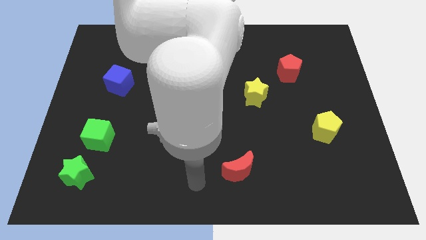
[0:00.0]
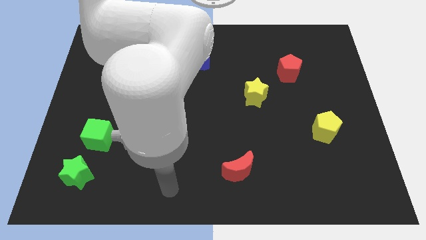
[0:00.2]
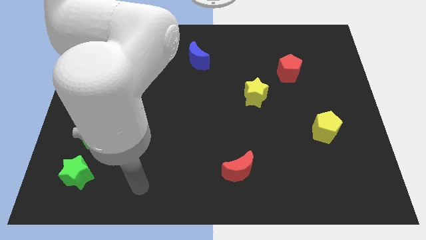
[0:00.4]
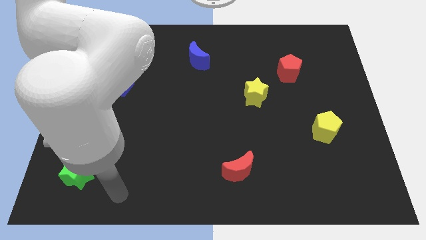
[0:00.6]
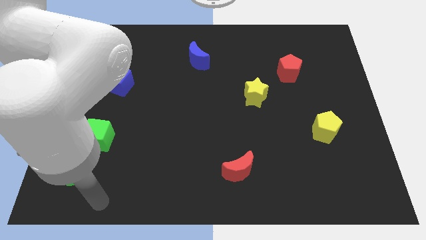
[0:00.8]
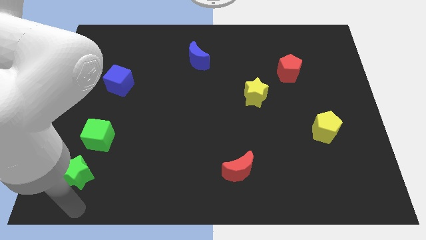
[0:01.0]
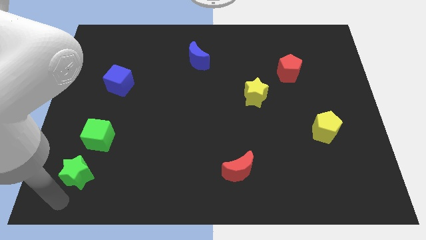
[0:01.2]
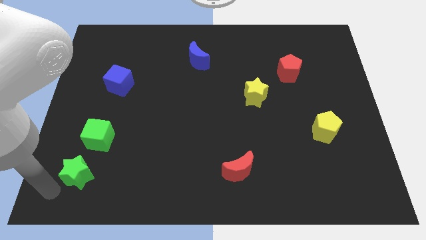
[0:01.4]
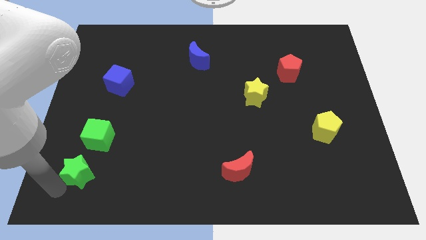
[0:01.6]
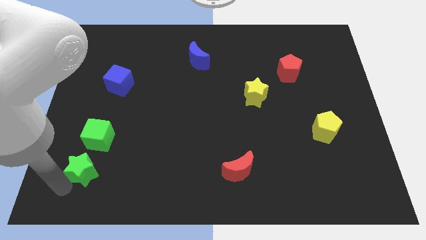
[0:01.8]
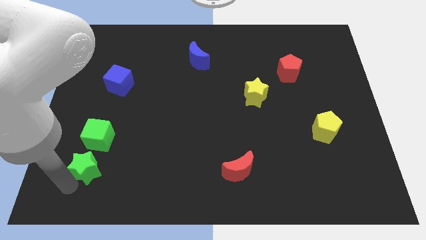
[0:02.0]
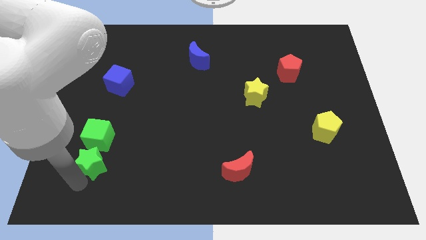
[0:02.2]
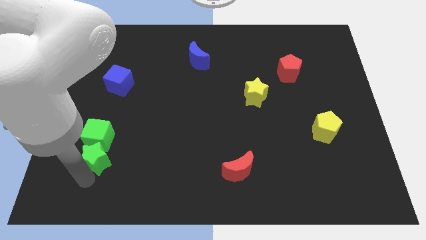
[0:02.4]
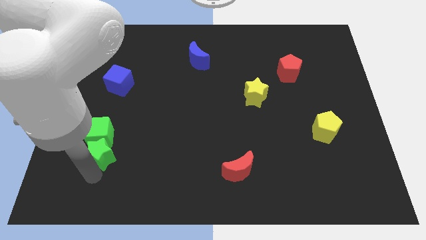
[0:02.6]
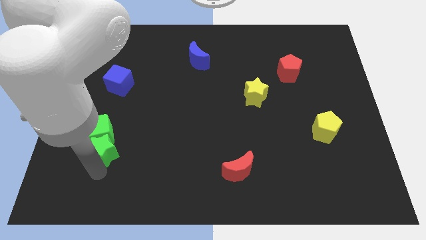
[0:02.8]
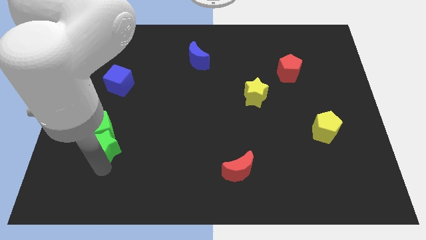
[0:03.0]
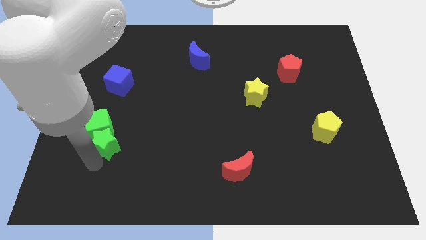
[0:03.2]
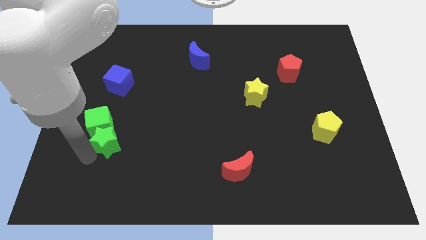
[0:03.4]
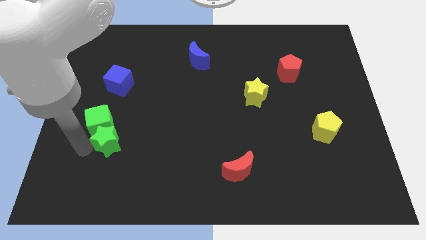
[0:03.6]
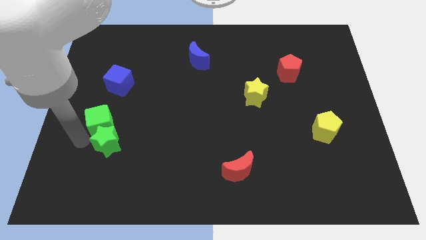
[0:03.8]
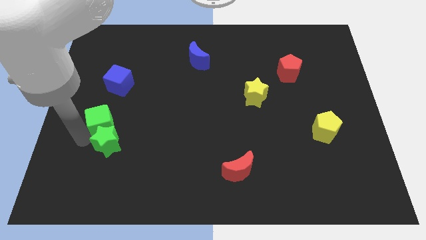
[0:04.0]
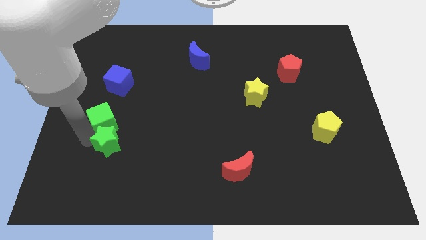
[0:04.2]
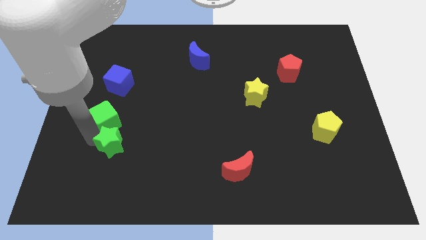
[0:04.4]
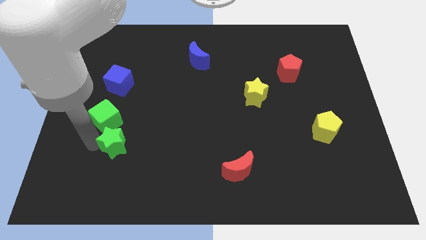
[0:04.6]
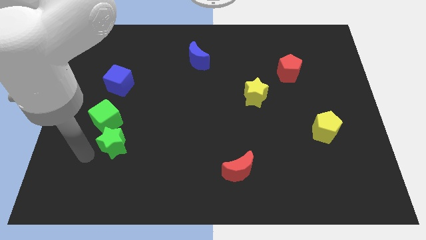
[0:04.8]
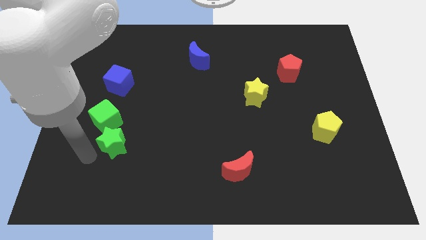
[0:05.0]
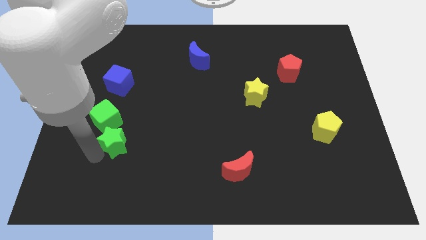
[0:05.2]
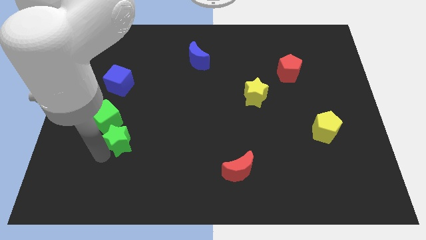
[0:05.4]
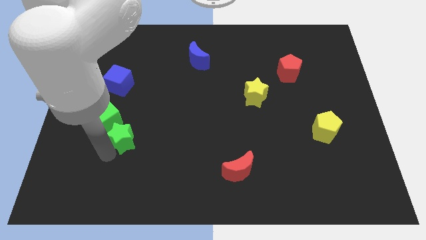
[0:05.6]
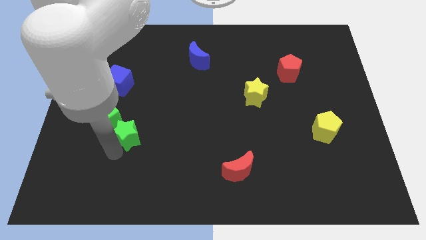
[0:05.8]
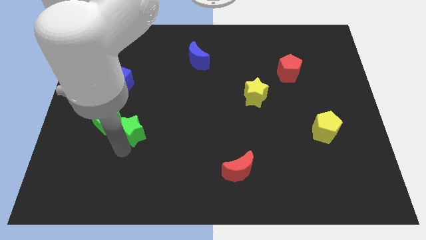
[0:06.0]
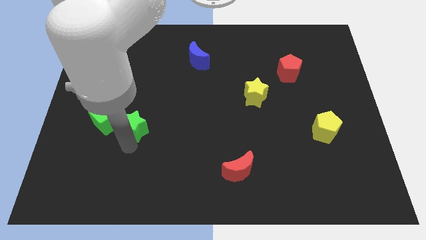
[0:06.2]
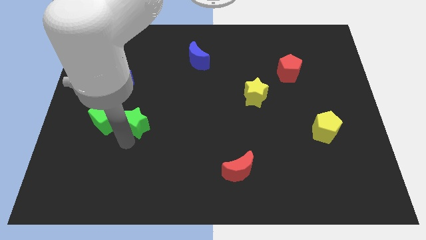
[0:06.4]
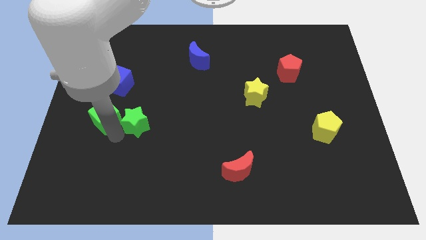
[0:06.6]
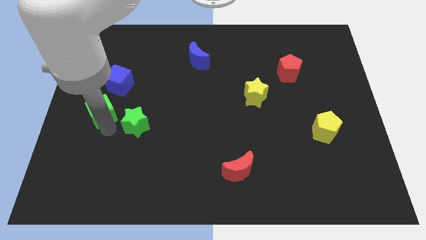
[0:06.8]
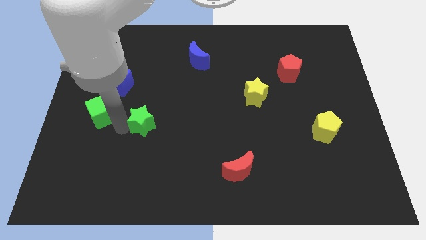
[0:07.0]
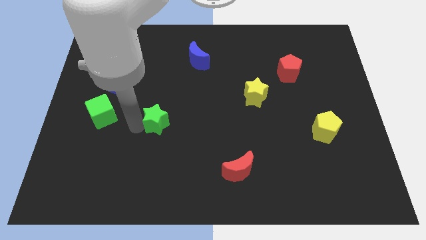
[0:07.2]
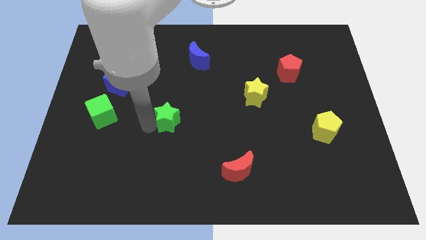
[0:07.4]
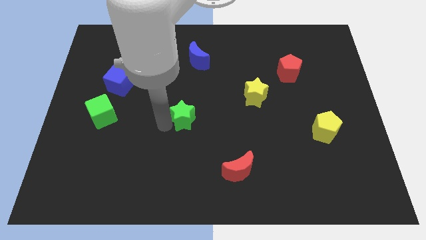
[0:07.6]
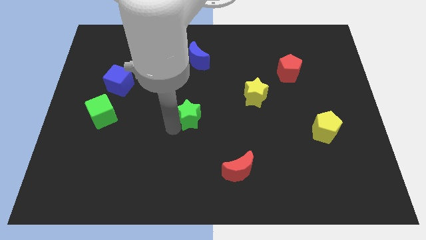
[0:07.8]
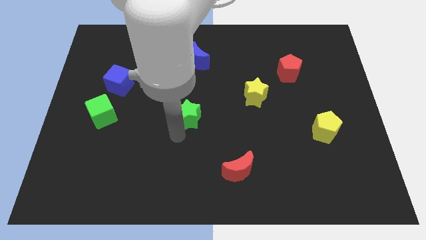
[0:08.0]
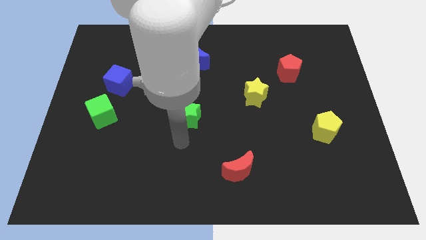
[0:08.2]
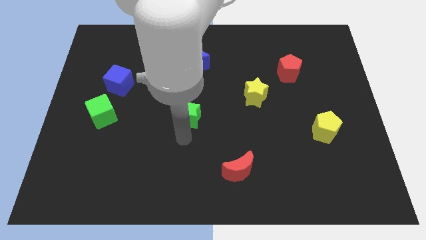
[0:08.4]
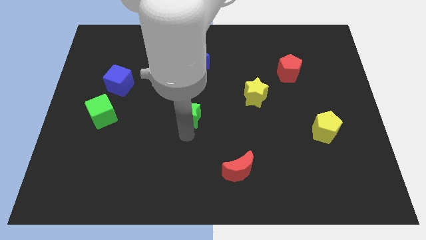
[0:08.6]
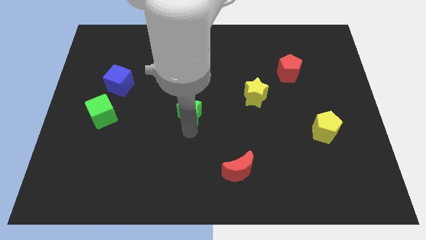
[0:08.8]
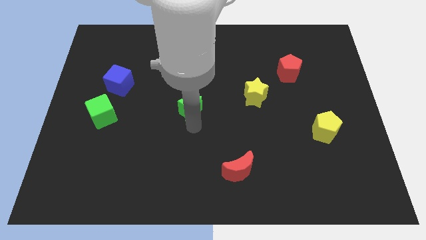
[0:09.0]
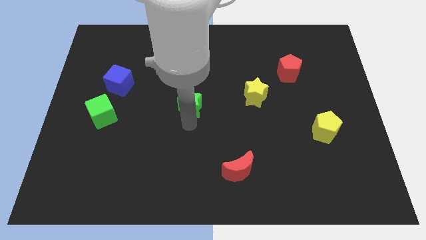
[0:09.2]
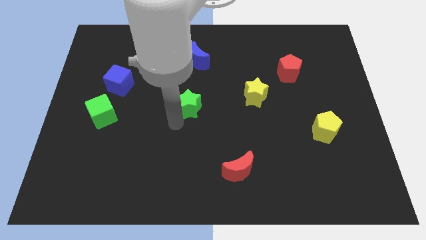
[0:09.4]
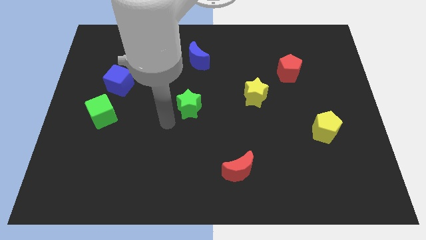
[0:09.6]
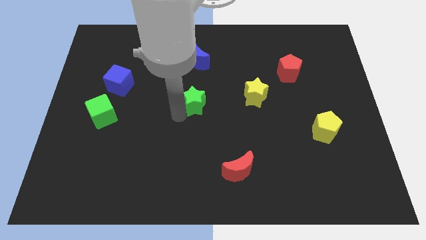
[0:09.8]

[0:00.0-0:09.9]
put the green star just left of the yellow star

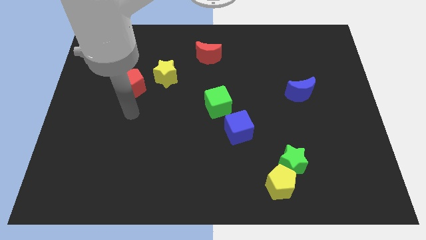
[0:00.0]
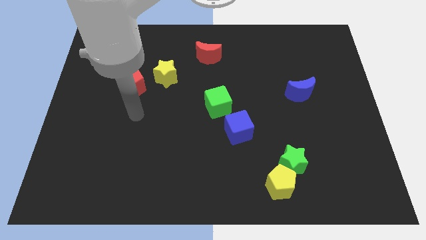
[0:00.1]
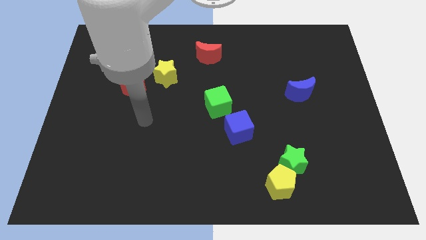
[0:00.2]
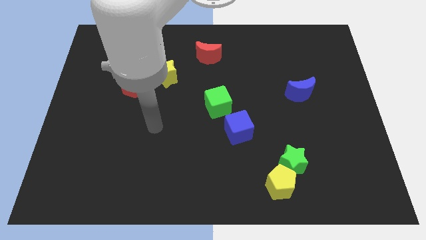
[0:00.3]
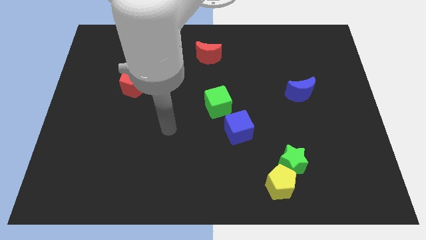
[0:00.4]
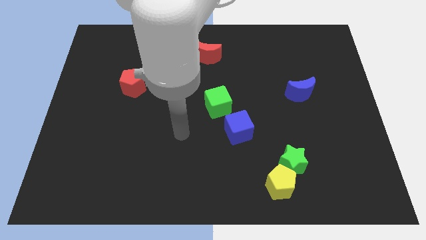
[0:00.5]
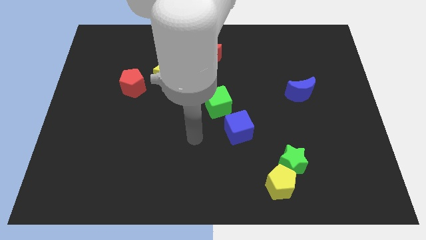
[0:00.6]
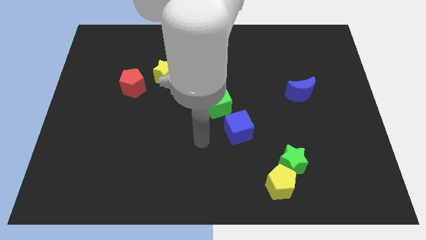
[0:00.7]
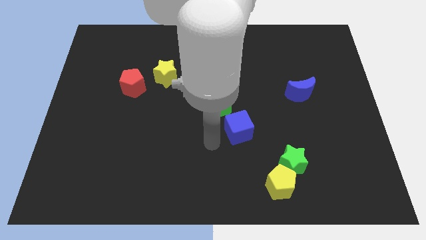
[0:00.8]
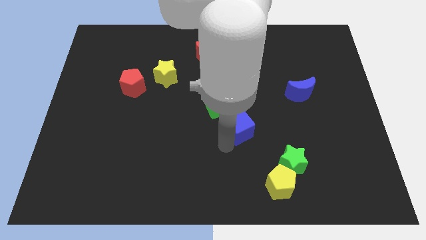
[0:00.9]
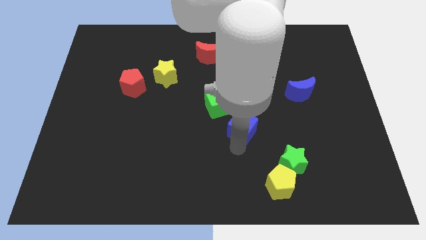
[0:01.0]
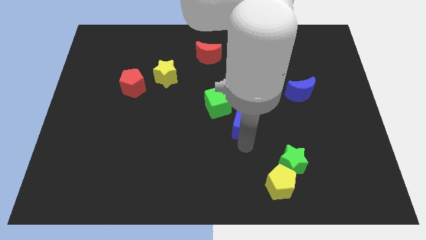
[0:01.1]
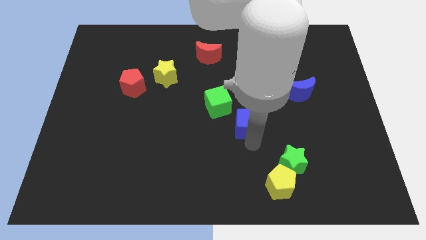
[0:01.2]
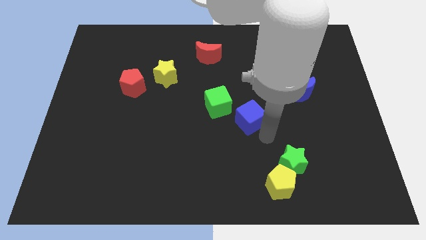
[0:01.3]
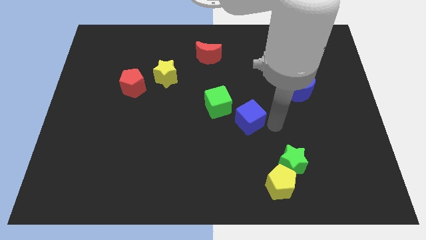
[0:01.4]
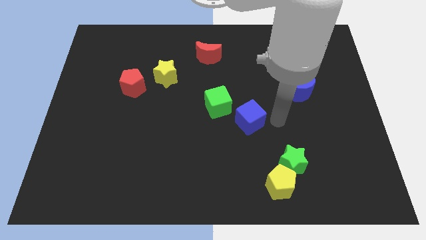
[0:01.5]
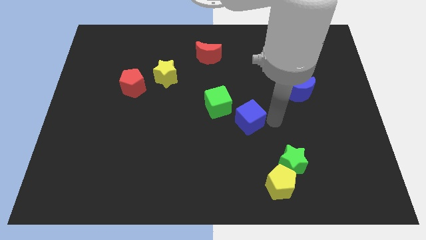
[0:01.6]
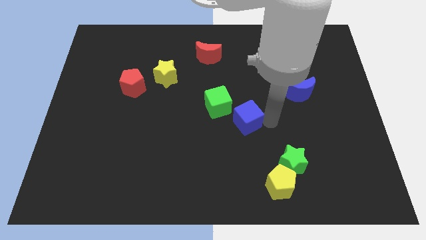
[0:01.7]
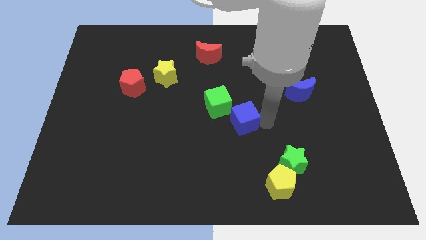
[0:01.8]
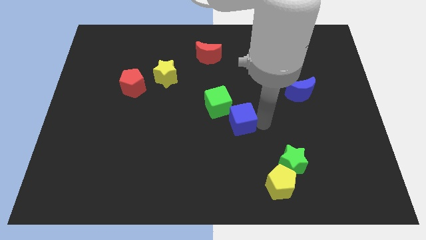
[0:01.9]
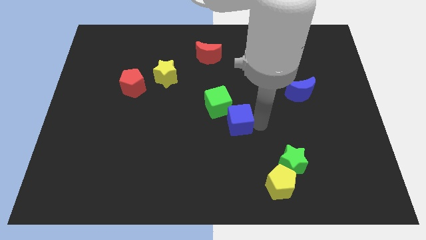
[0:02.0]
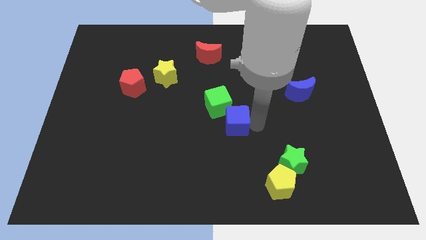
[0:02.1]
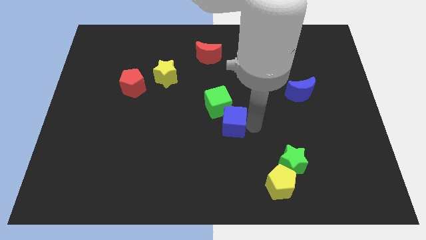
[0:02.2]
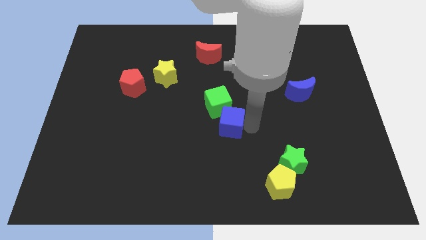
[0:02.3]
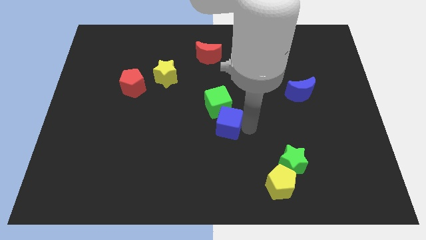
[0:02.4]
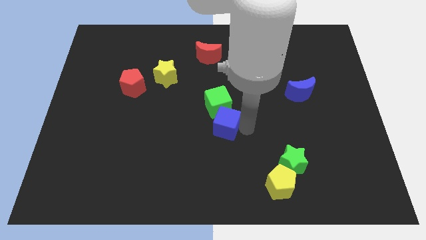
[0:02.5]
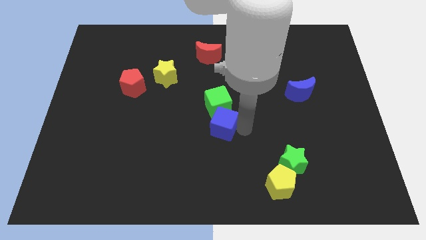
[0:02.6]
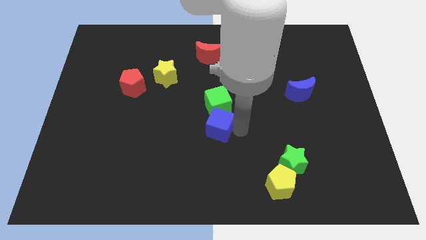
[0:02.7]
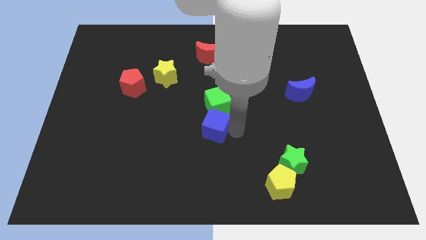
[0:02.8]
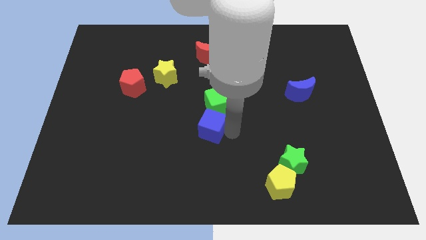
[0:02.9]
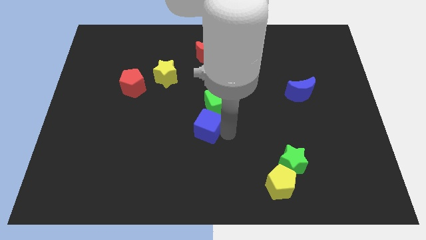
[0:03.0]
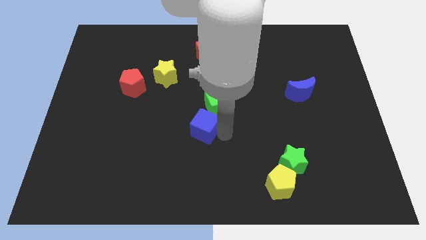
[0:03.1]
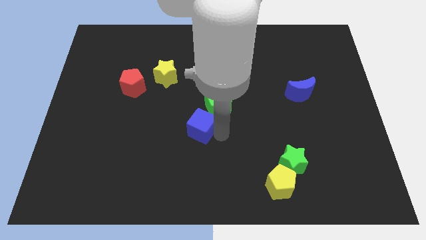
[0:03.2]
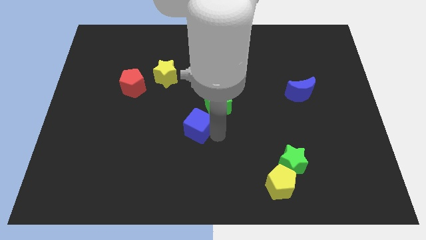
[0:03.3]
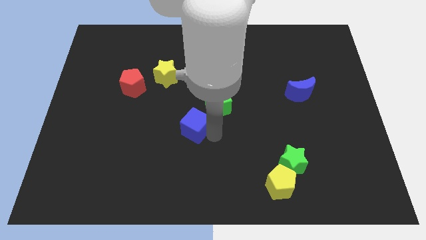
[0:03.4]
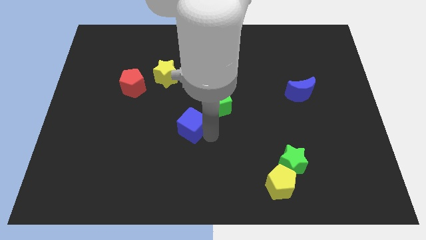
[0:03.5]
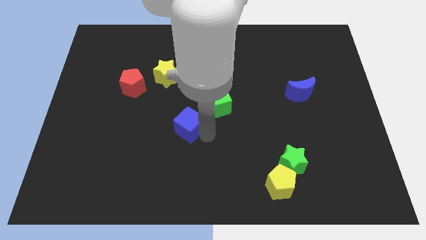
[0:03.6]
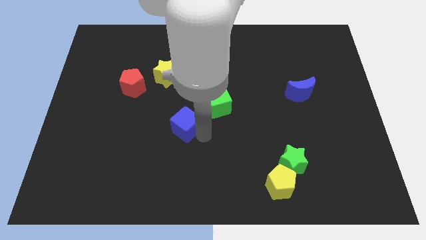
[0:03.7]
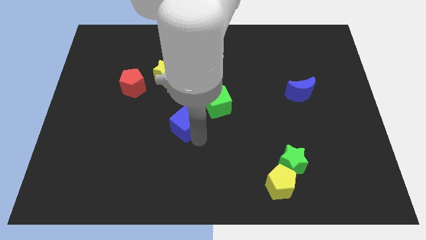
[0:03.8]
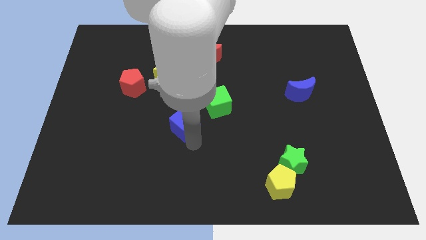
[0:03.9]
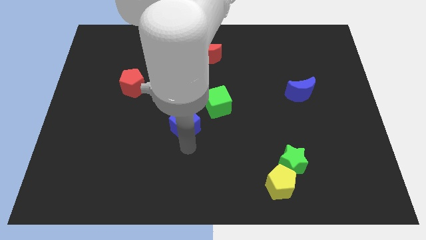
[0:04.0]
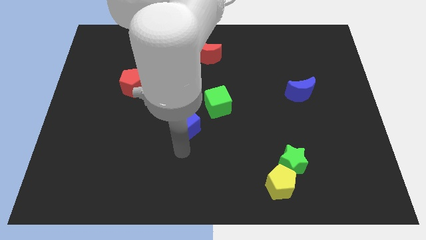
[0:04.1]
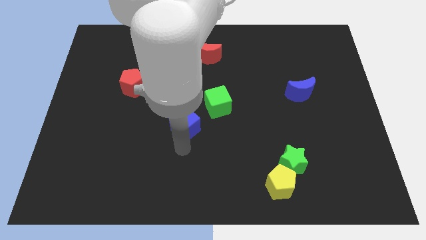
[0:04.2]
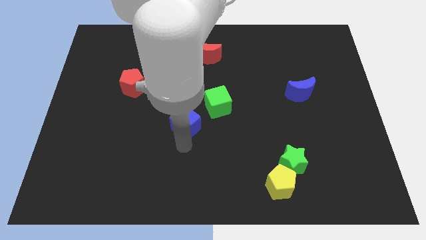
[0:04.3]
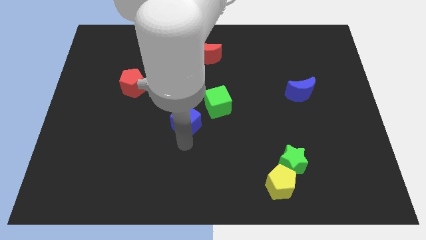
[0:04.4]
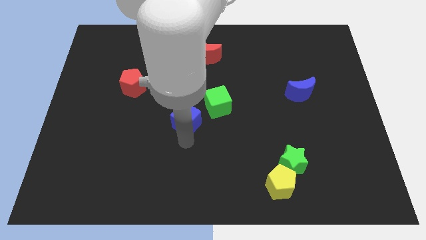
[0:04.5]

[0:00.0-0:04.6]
push the blue cube just left of the green cube
